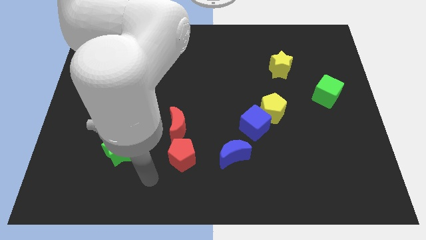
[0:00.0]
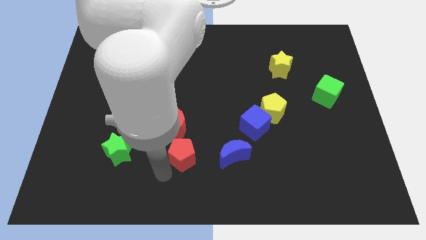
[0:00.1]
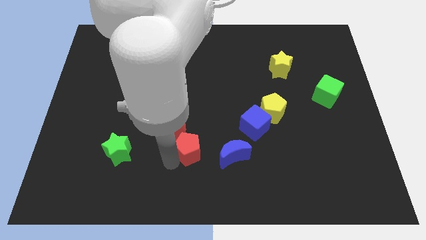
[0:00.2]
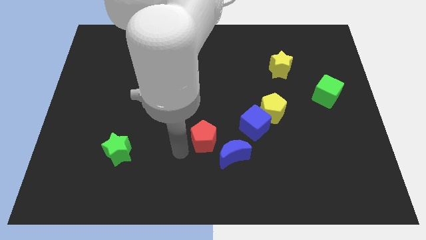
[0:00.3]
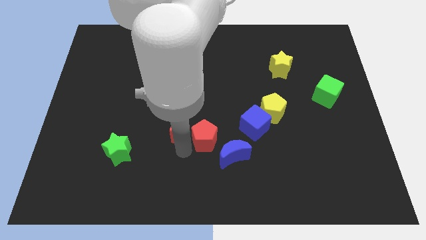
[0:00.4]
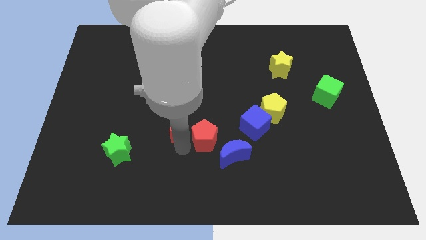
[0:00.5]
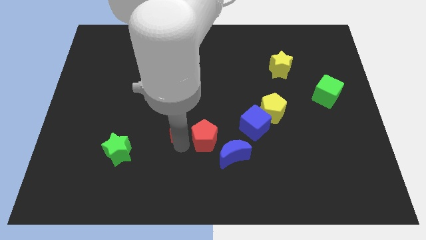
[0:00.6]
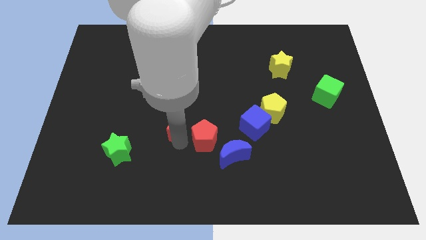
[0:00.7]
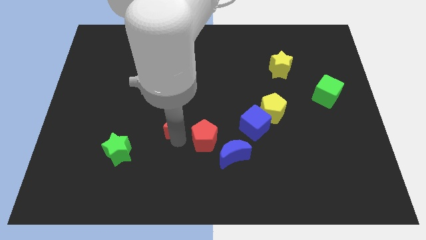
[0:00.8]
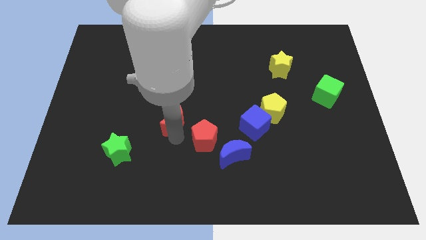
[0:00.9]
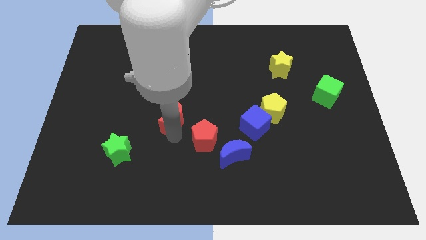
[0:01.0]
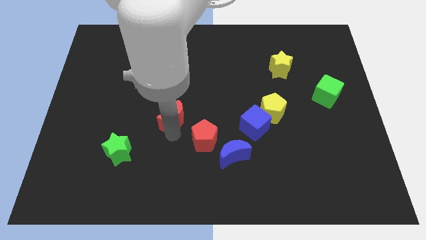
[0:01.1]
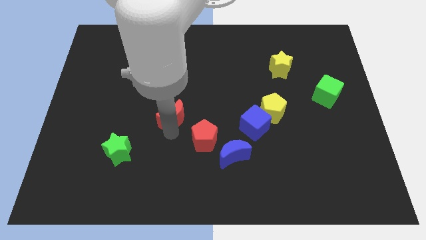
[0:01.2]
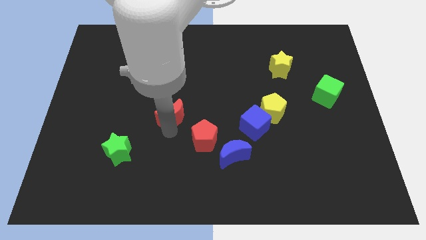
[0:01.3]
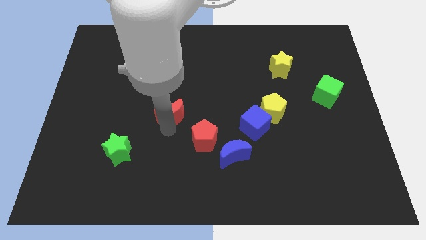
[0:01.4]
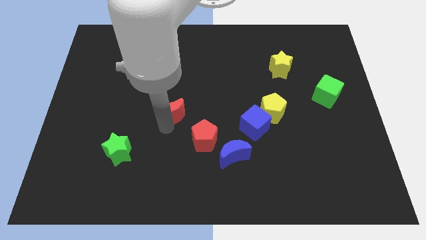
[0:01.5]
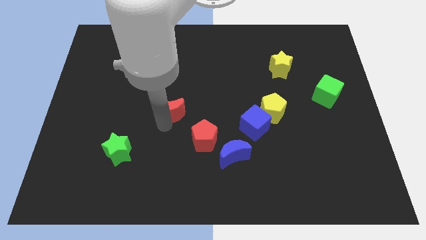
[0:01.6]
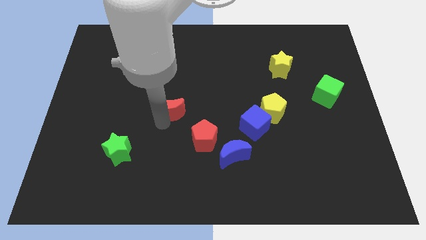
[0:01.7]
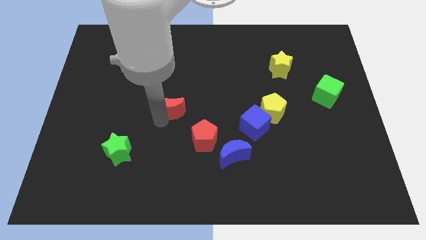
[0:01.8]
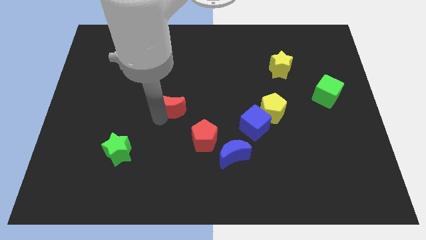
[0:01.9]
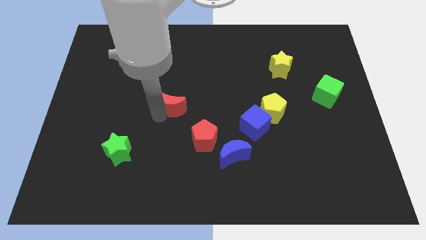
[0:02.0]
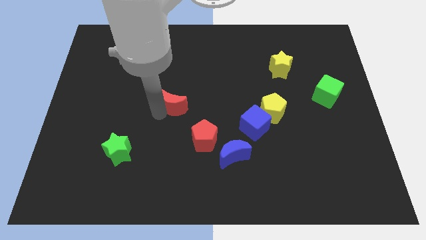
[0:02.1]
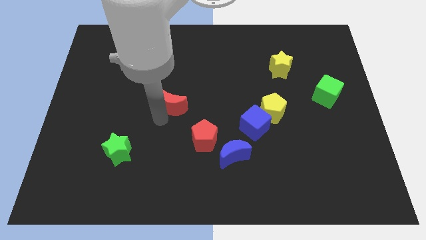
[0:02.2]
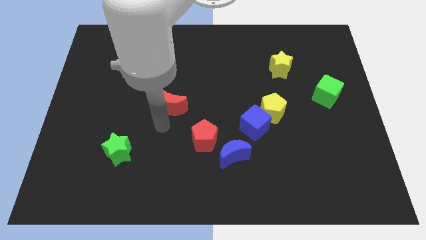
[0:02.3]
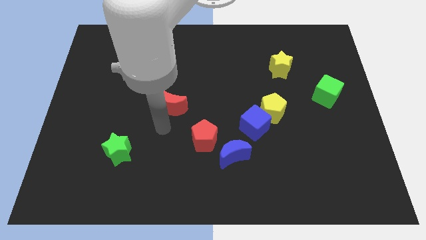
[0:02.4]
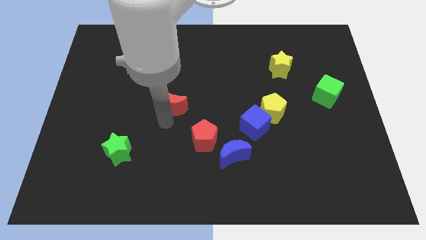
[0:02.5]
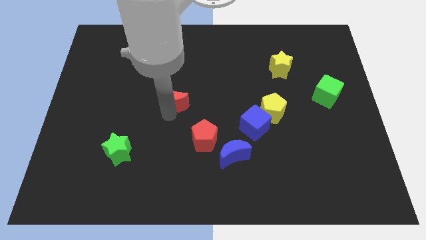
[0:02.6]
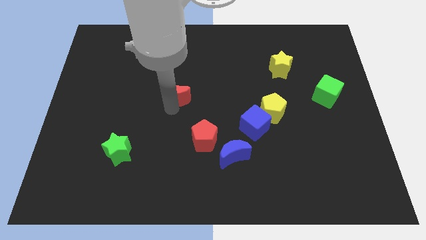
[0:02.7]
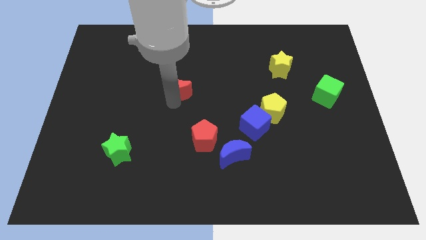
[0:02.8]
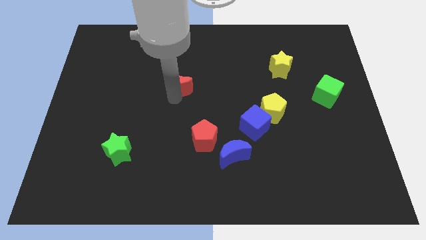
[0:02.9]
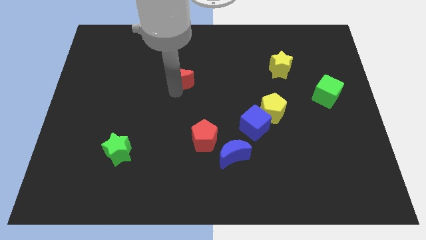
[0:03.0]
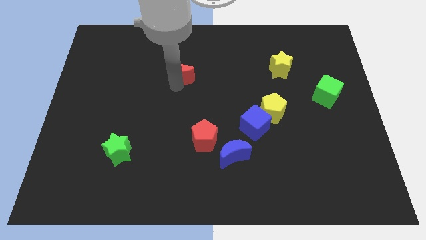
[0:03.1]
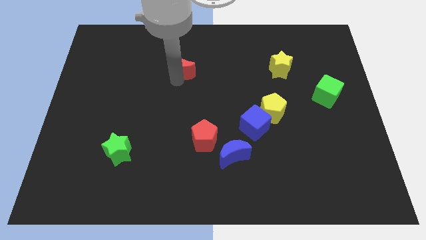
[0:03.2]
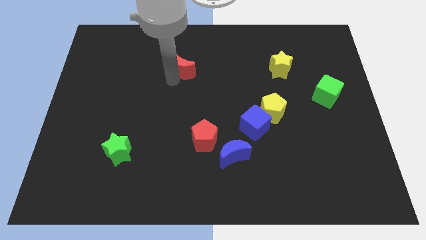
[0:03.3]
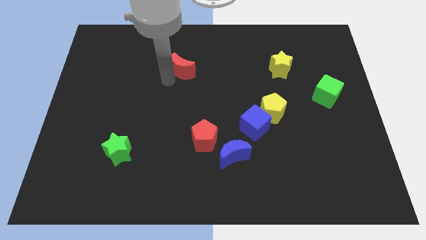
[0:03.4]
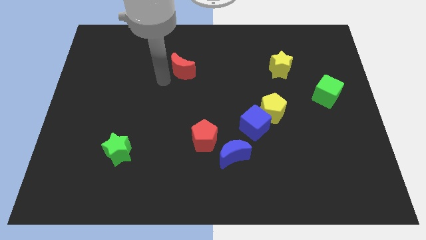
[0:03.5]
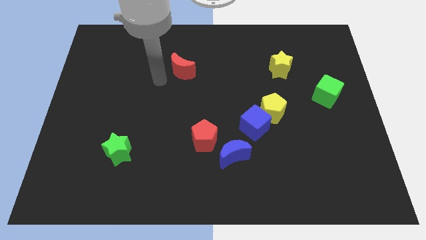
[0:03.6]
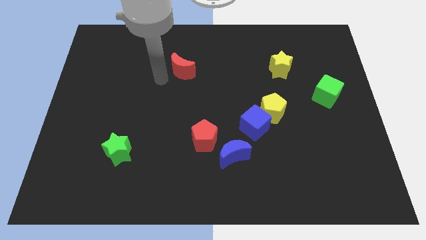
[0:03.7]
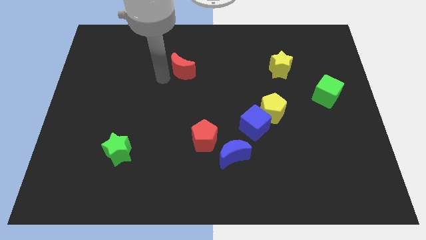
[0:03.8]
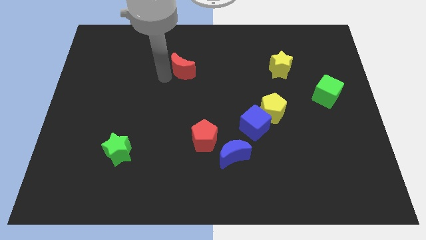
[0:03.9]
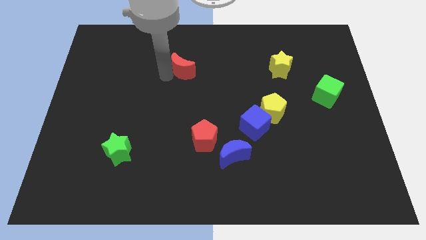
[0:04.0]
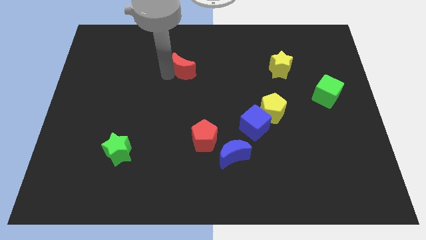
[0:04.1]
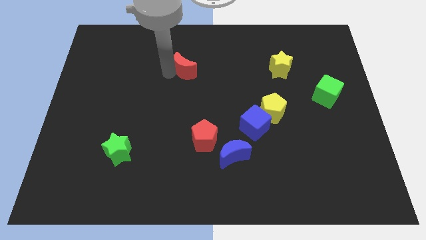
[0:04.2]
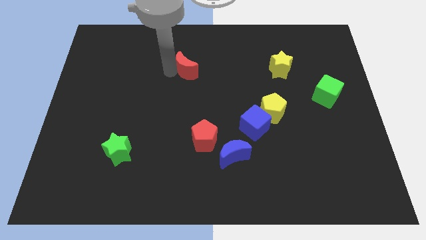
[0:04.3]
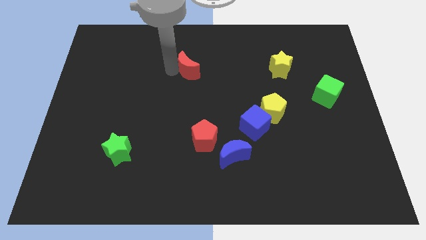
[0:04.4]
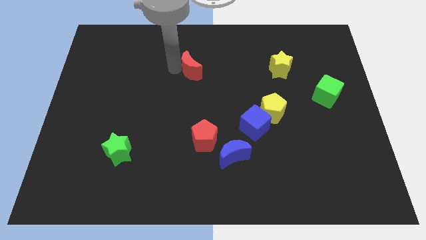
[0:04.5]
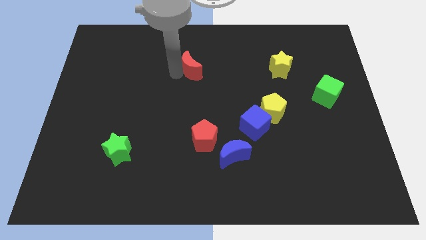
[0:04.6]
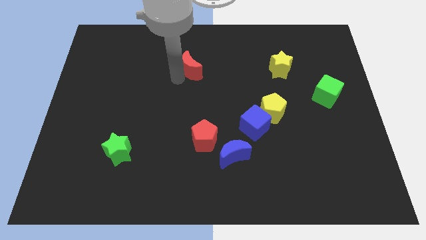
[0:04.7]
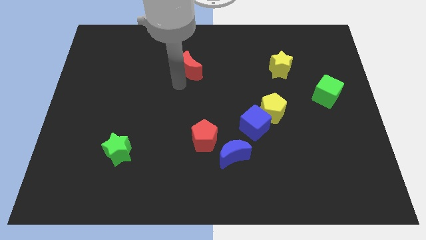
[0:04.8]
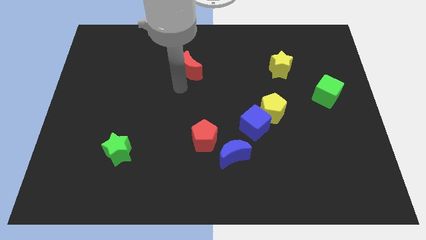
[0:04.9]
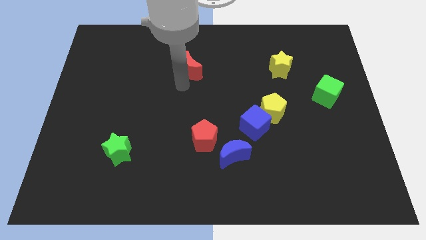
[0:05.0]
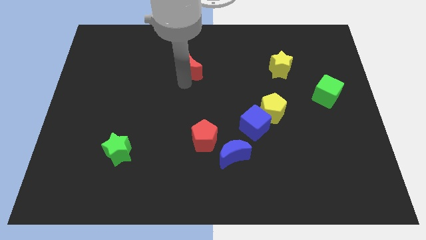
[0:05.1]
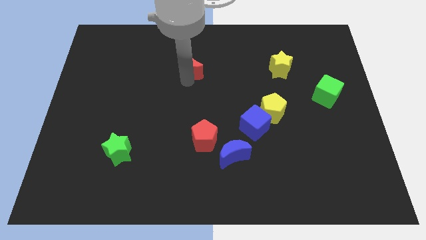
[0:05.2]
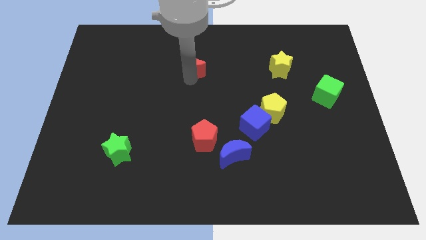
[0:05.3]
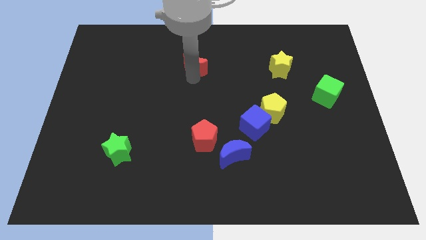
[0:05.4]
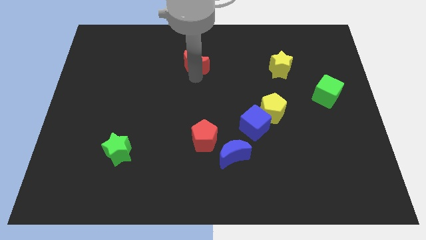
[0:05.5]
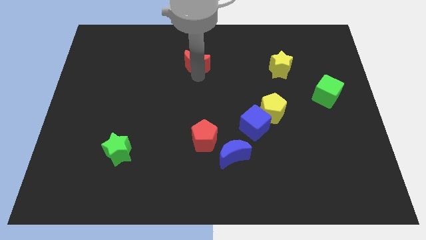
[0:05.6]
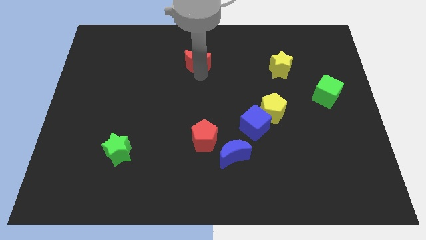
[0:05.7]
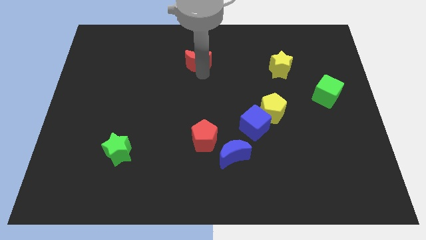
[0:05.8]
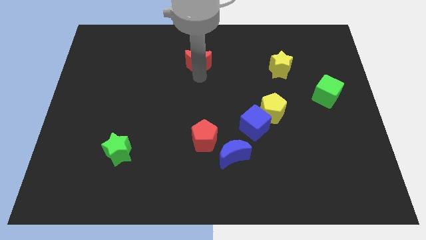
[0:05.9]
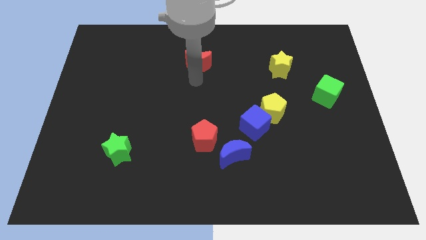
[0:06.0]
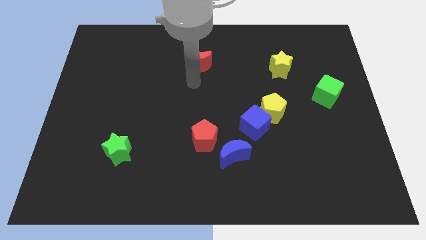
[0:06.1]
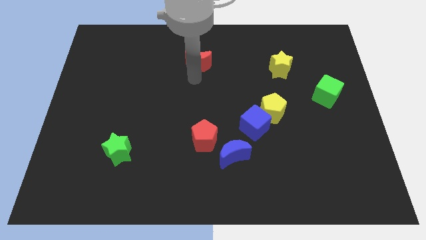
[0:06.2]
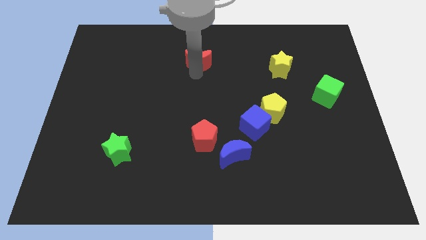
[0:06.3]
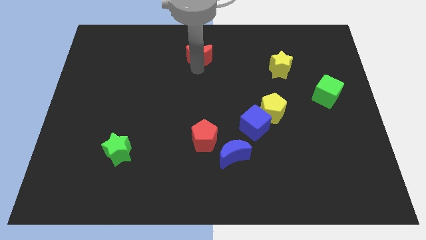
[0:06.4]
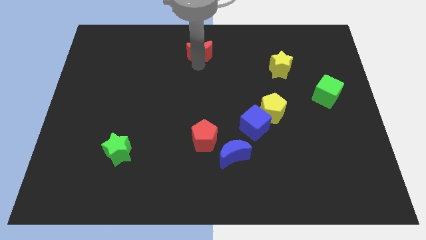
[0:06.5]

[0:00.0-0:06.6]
put the red moon to the top
